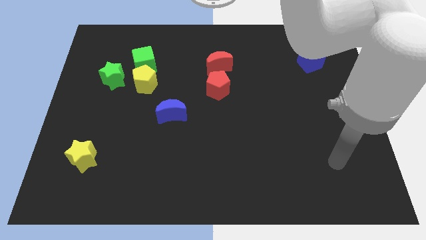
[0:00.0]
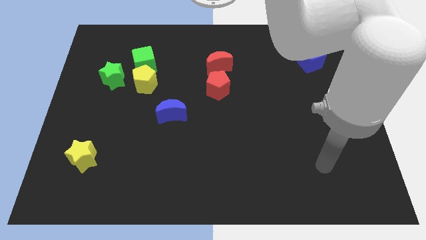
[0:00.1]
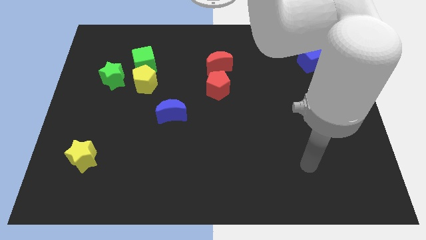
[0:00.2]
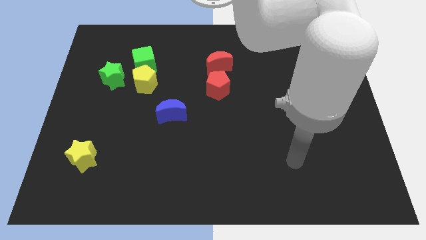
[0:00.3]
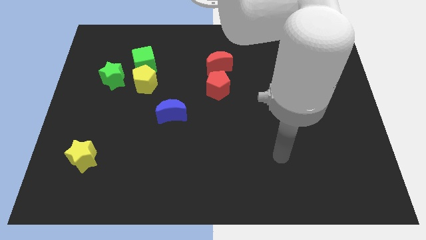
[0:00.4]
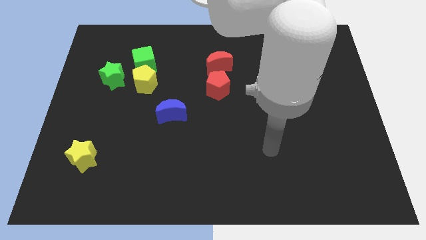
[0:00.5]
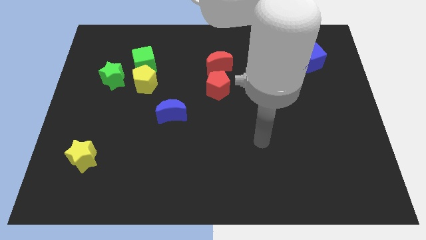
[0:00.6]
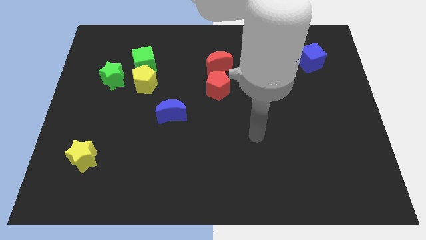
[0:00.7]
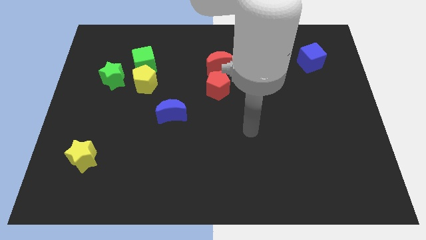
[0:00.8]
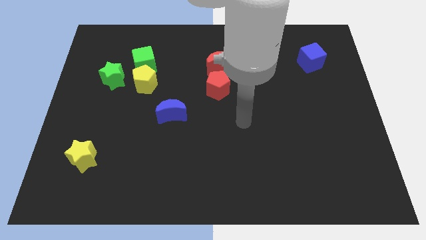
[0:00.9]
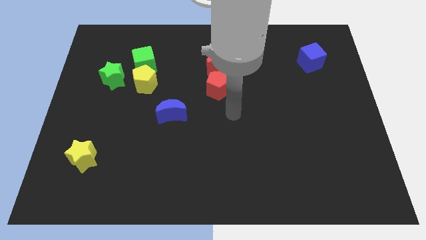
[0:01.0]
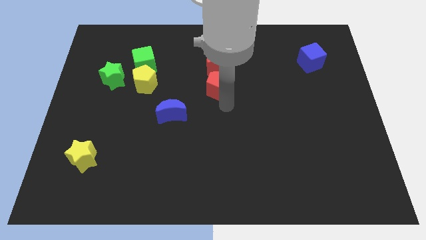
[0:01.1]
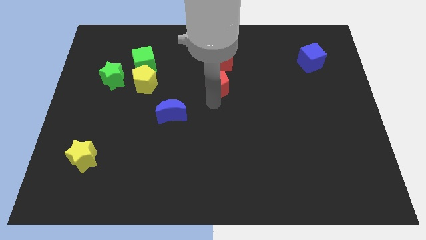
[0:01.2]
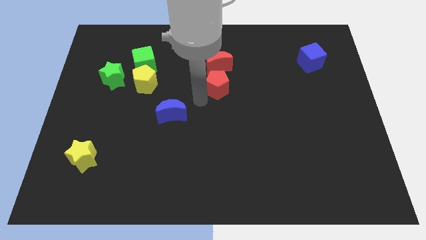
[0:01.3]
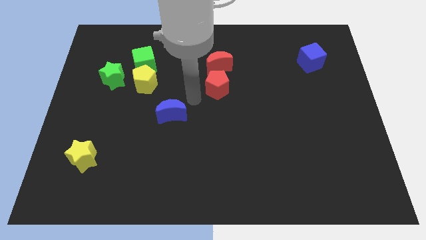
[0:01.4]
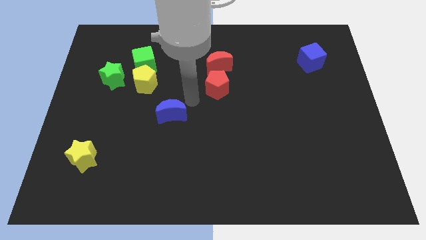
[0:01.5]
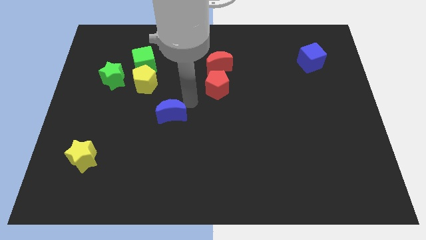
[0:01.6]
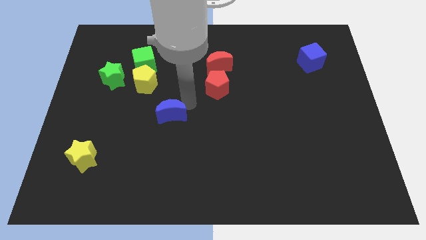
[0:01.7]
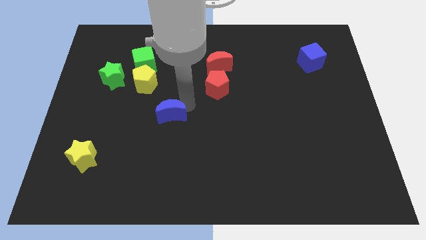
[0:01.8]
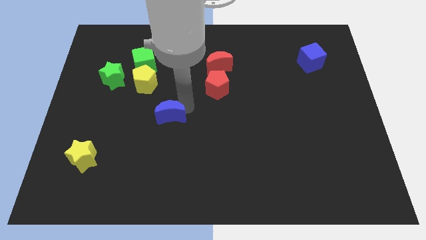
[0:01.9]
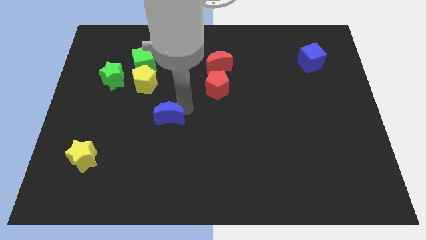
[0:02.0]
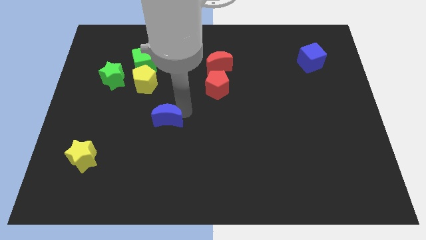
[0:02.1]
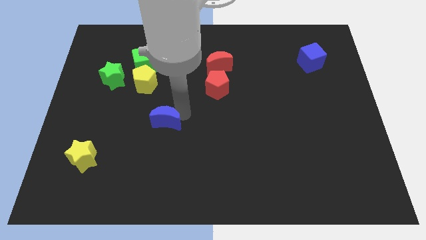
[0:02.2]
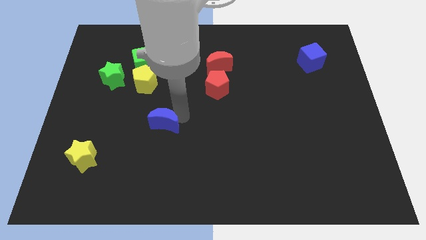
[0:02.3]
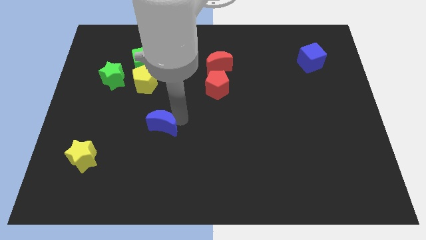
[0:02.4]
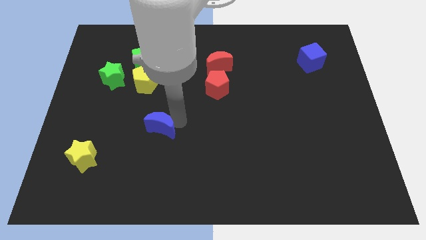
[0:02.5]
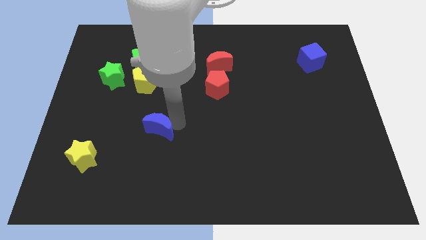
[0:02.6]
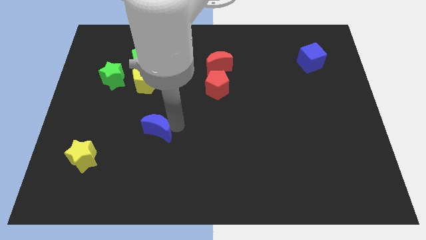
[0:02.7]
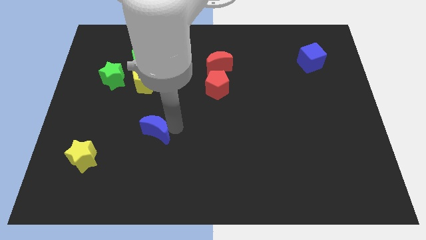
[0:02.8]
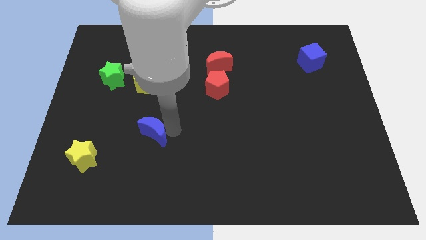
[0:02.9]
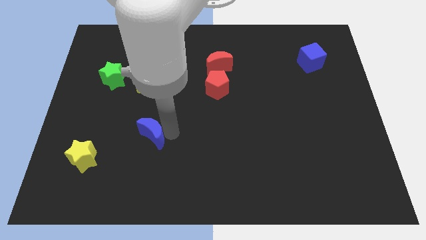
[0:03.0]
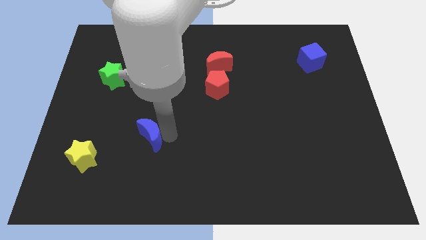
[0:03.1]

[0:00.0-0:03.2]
push the blue moon slightly diagonally down and left

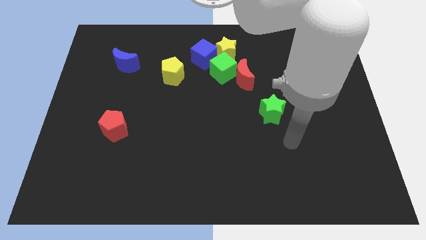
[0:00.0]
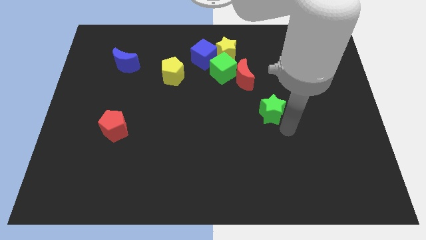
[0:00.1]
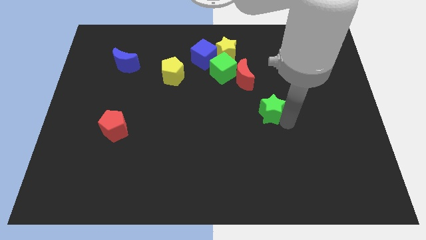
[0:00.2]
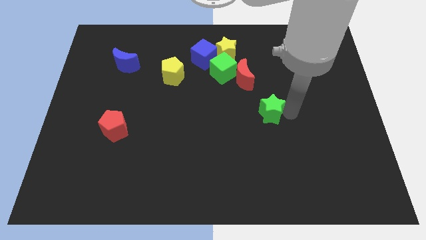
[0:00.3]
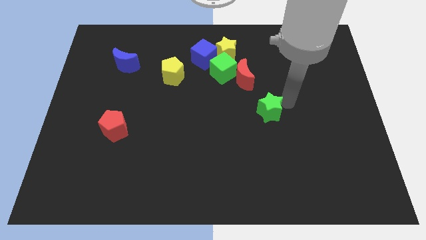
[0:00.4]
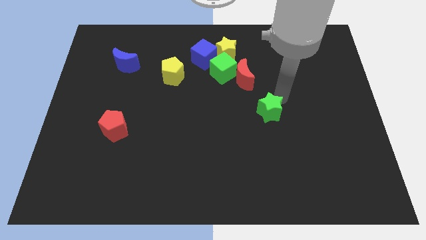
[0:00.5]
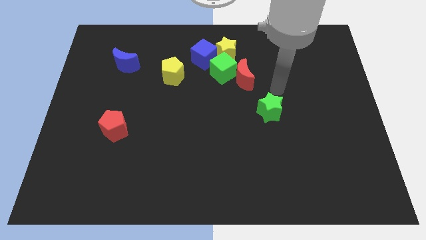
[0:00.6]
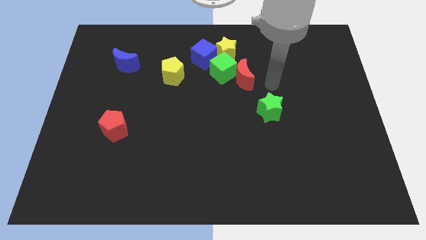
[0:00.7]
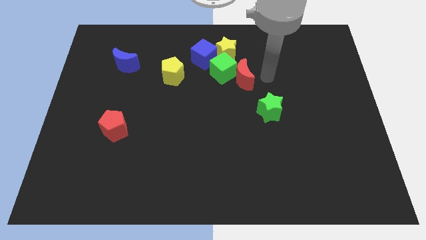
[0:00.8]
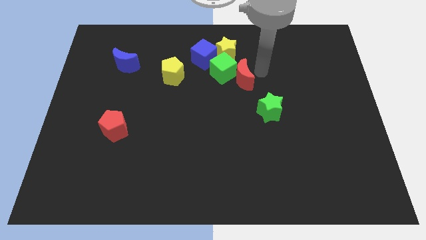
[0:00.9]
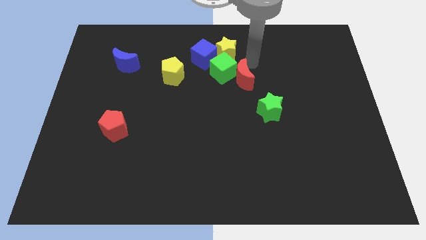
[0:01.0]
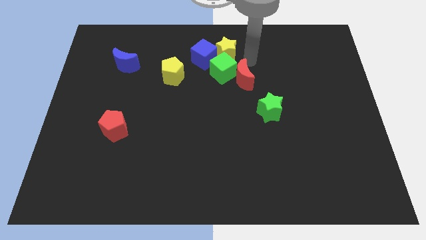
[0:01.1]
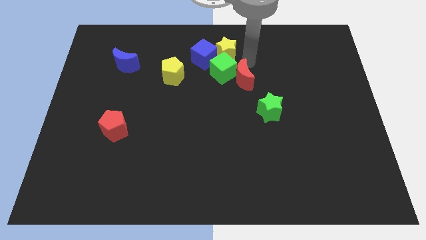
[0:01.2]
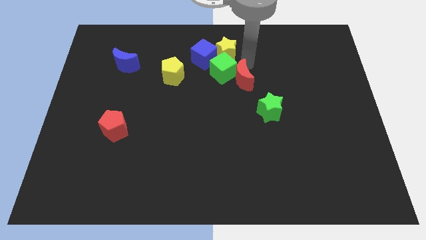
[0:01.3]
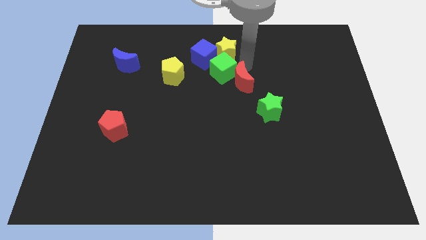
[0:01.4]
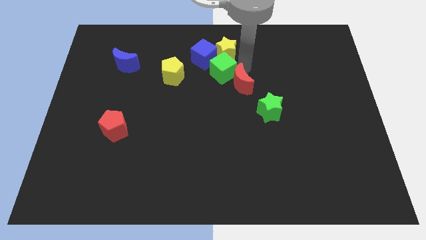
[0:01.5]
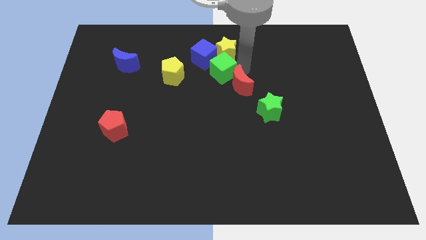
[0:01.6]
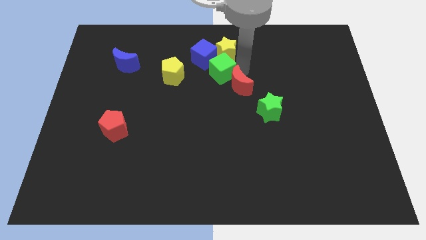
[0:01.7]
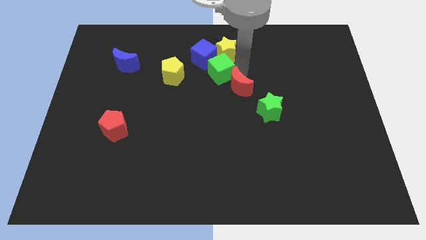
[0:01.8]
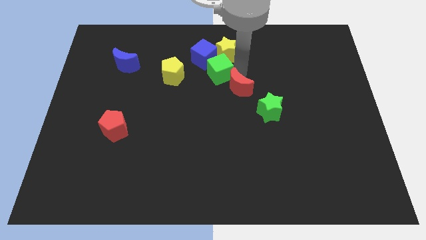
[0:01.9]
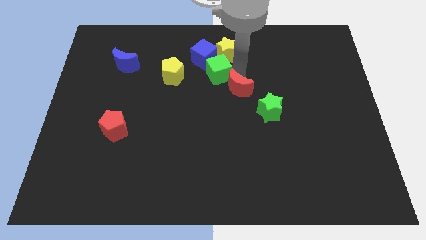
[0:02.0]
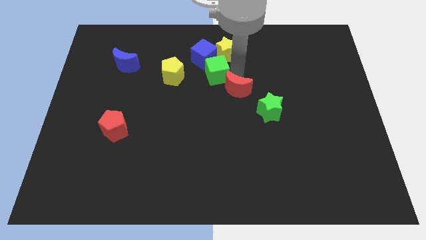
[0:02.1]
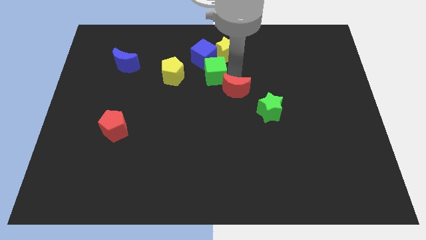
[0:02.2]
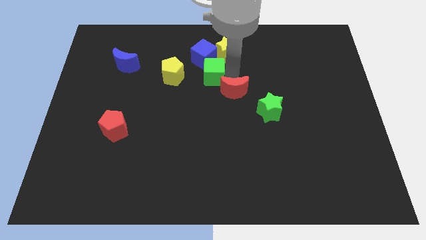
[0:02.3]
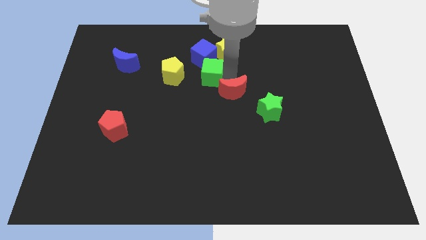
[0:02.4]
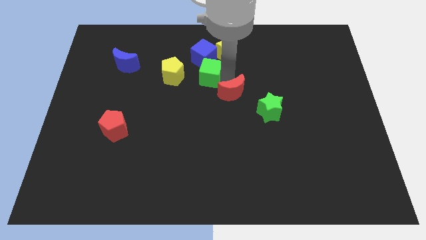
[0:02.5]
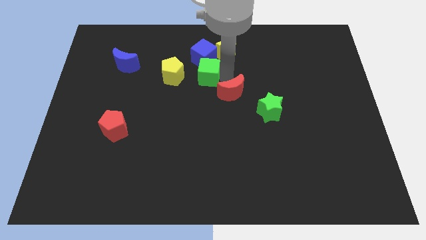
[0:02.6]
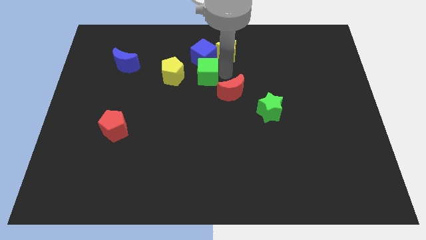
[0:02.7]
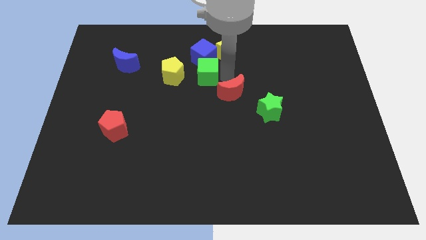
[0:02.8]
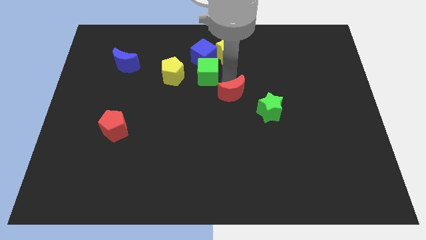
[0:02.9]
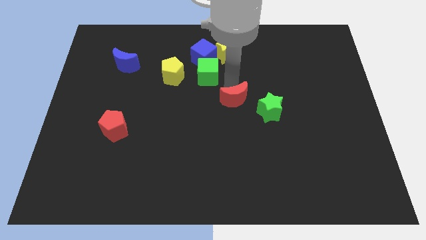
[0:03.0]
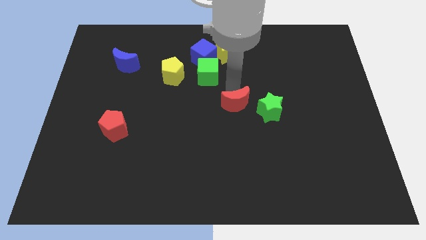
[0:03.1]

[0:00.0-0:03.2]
push the red moon down a little bit

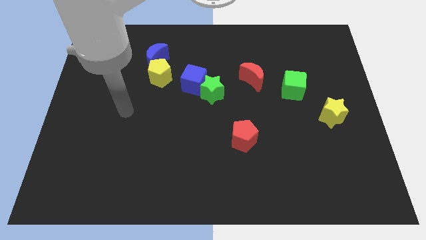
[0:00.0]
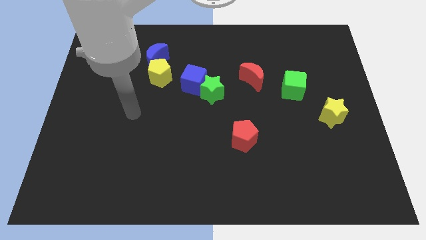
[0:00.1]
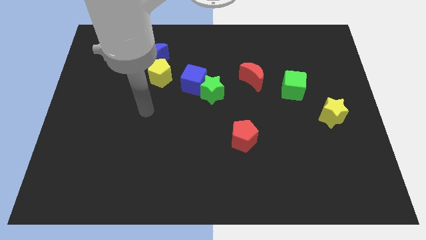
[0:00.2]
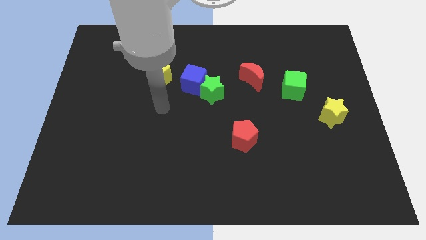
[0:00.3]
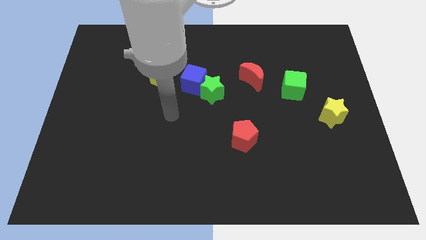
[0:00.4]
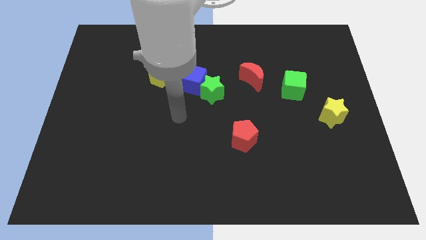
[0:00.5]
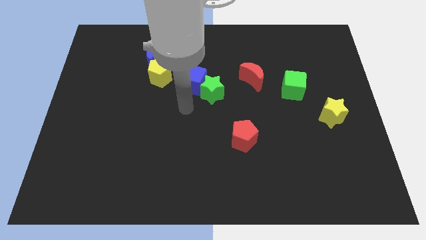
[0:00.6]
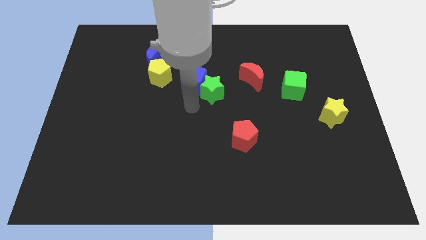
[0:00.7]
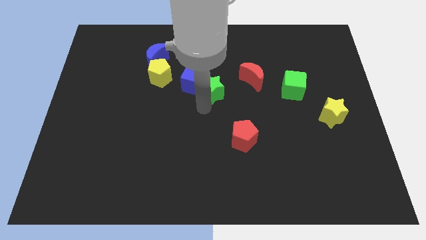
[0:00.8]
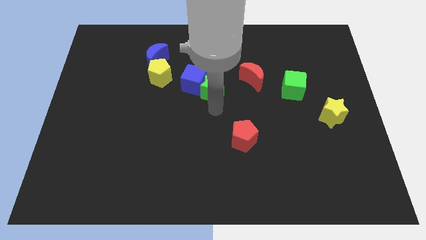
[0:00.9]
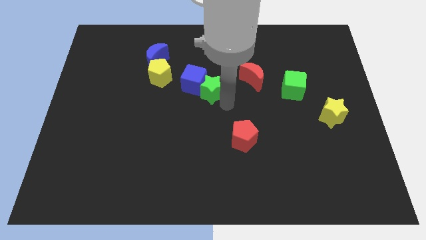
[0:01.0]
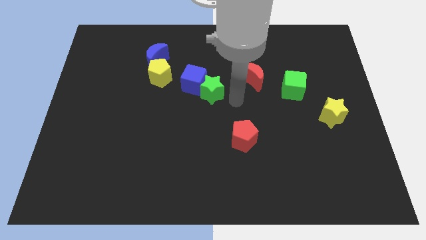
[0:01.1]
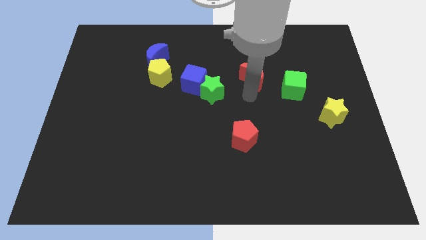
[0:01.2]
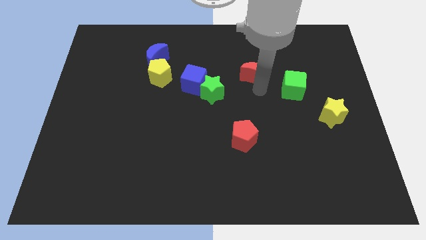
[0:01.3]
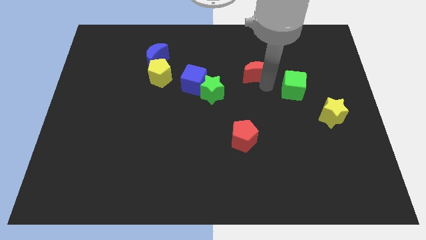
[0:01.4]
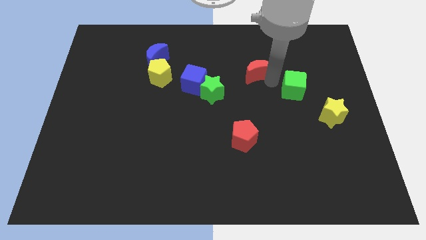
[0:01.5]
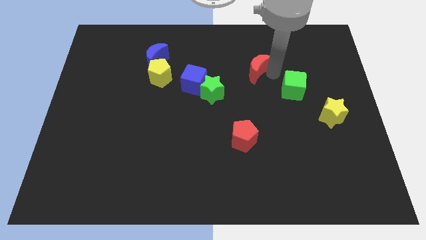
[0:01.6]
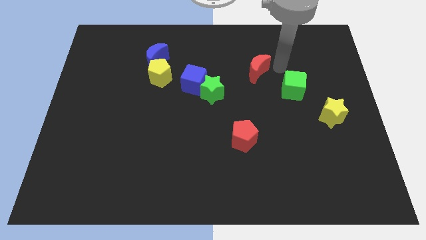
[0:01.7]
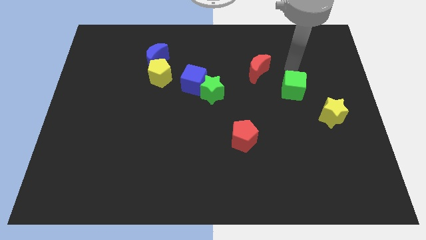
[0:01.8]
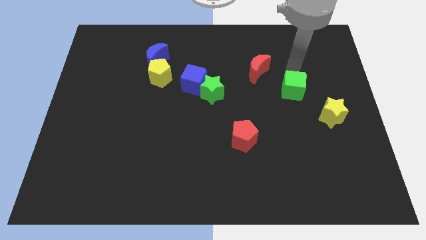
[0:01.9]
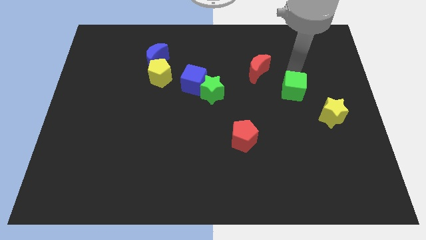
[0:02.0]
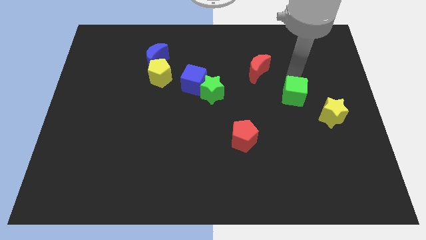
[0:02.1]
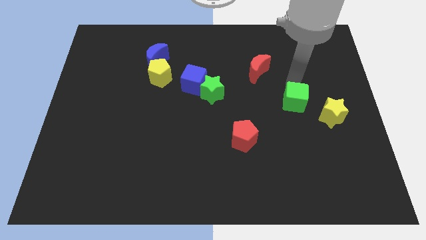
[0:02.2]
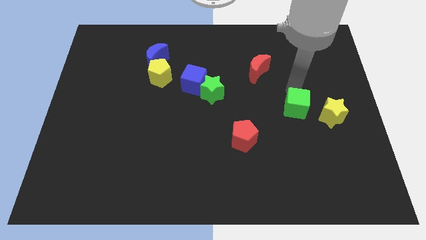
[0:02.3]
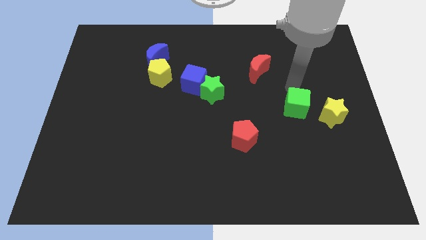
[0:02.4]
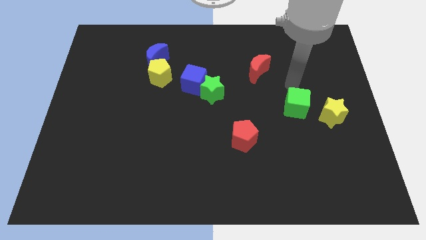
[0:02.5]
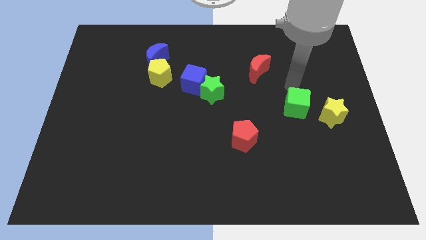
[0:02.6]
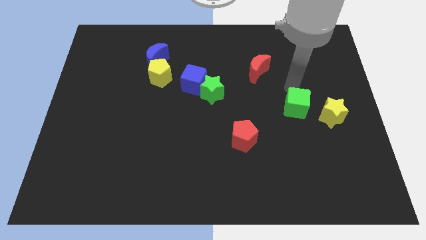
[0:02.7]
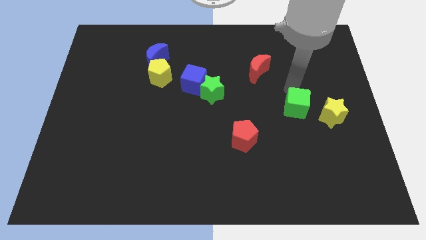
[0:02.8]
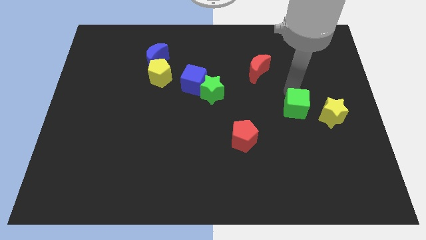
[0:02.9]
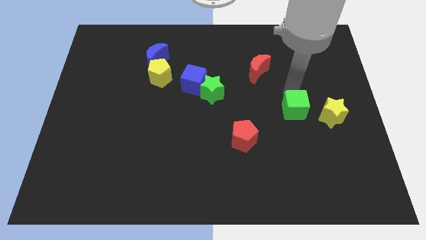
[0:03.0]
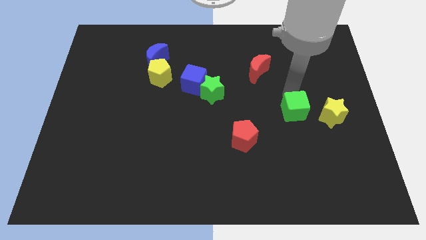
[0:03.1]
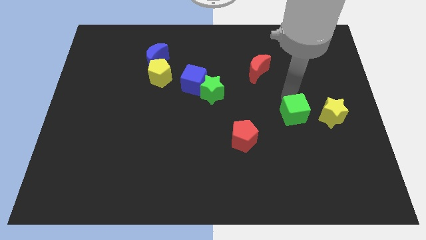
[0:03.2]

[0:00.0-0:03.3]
push the green cube downwards a bit
